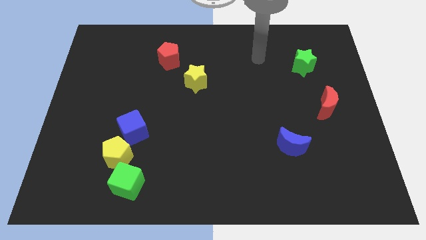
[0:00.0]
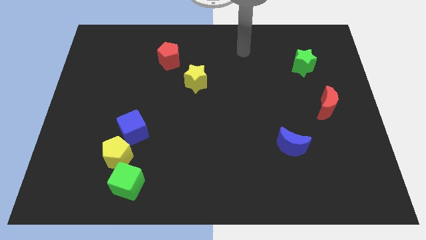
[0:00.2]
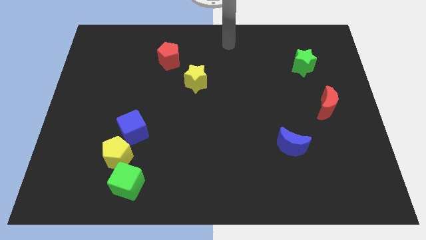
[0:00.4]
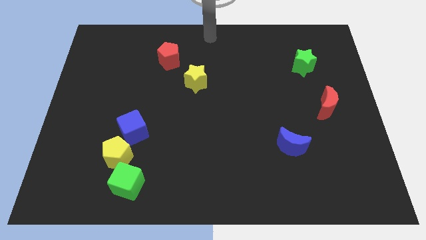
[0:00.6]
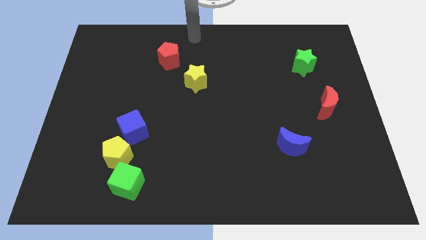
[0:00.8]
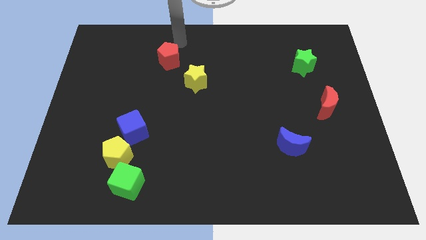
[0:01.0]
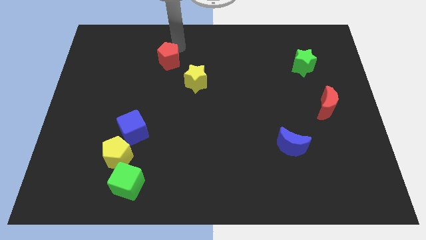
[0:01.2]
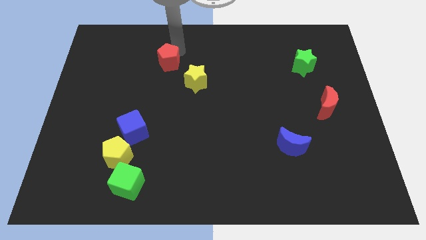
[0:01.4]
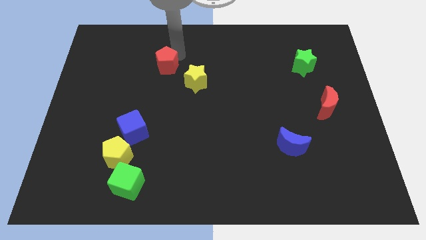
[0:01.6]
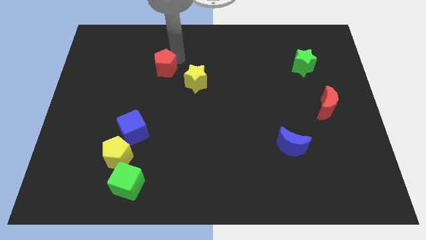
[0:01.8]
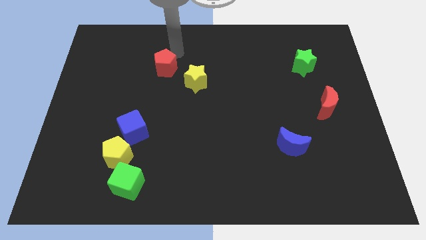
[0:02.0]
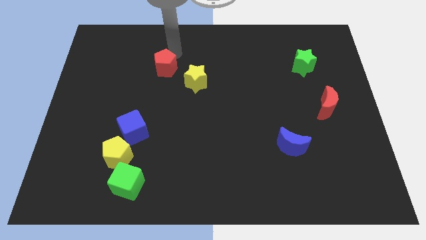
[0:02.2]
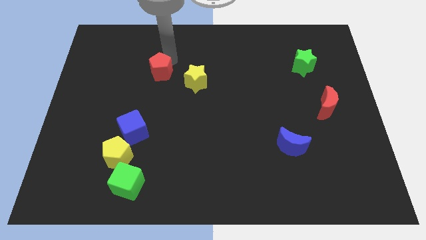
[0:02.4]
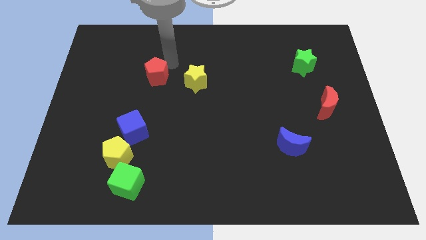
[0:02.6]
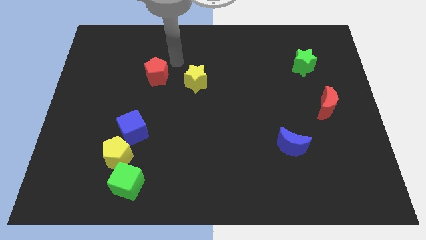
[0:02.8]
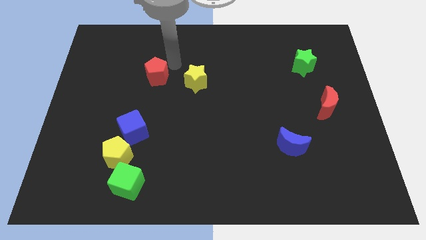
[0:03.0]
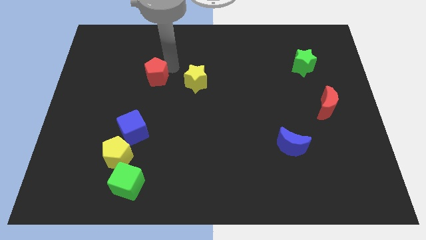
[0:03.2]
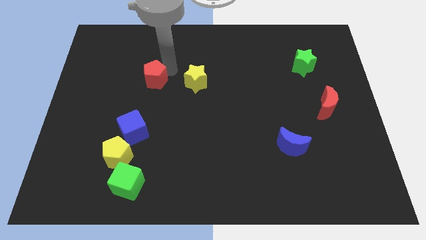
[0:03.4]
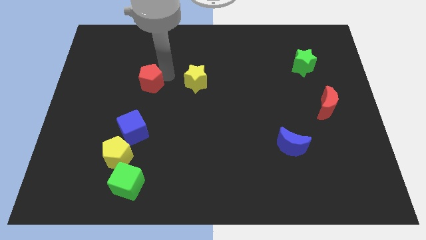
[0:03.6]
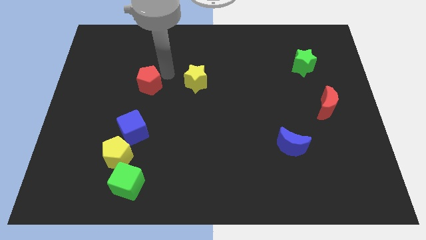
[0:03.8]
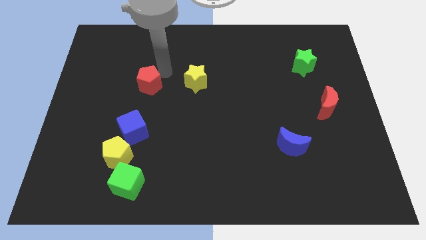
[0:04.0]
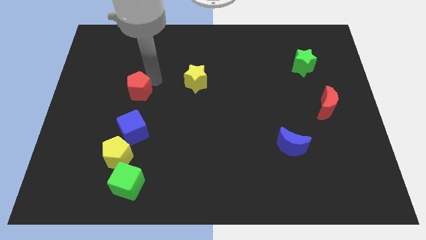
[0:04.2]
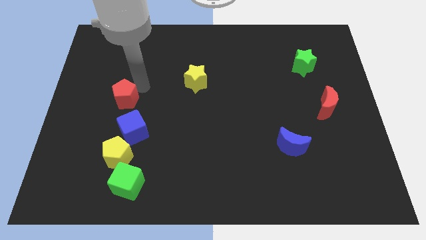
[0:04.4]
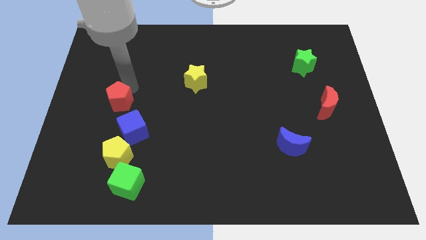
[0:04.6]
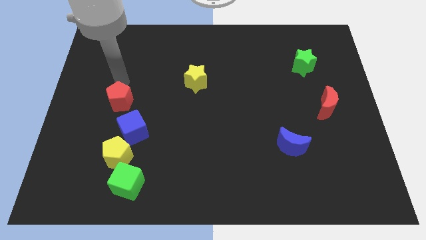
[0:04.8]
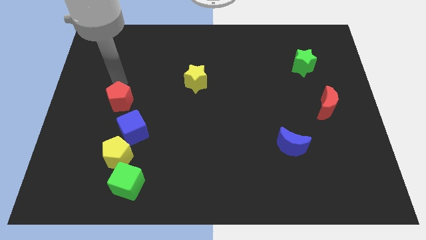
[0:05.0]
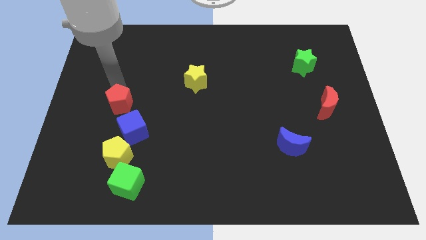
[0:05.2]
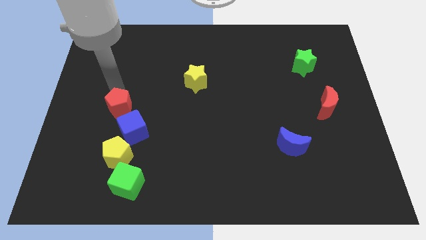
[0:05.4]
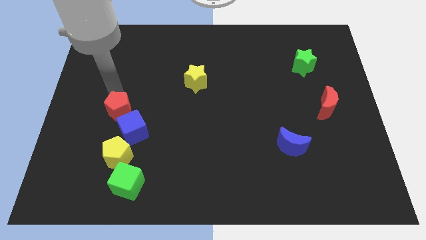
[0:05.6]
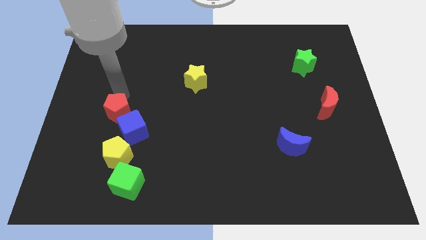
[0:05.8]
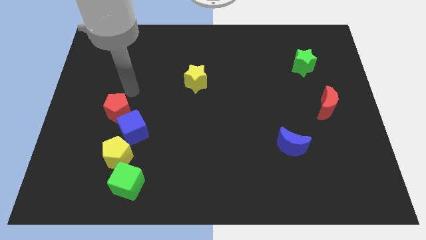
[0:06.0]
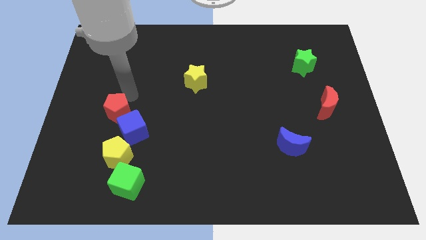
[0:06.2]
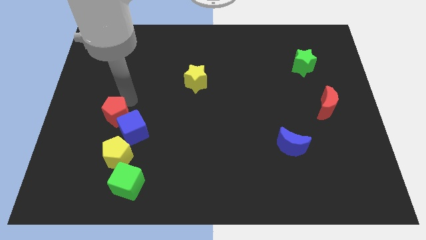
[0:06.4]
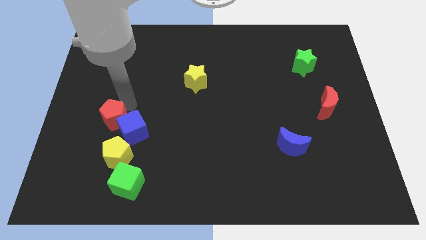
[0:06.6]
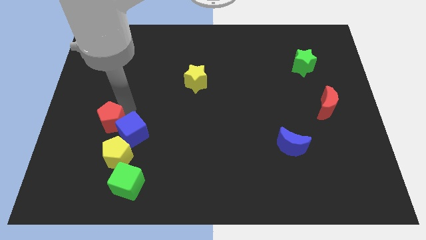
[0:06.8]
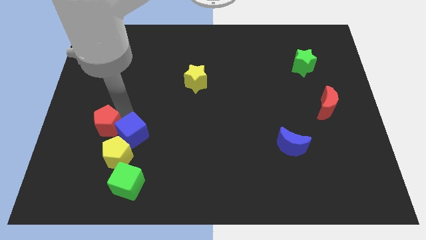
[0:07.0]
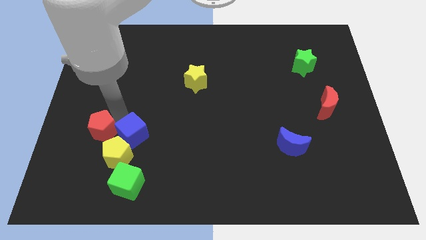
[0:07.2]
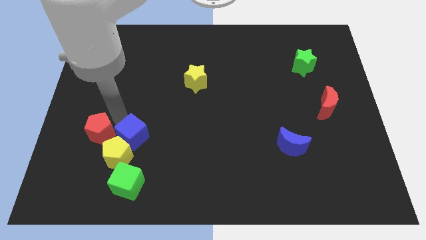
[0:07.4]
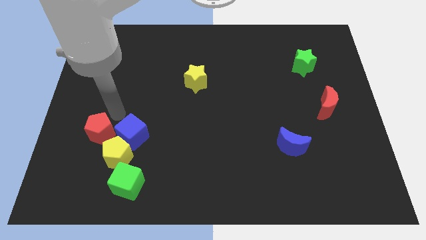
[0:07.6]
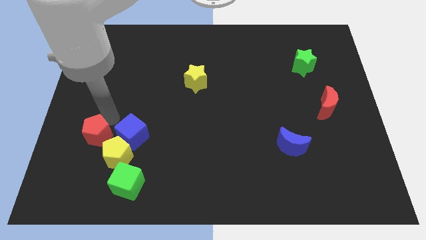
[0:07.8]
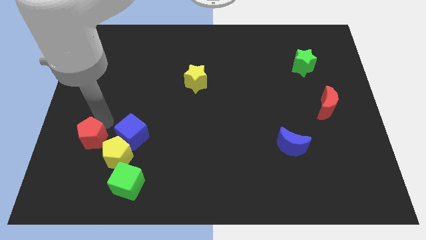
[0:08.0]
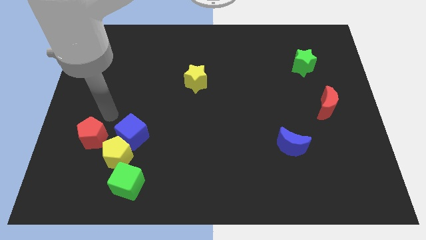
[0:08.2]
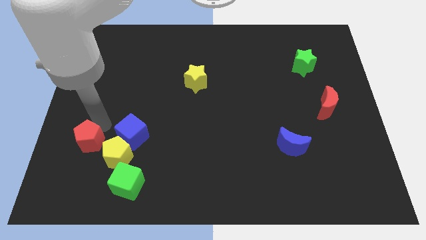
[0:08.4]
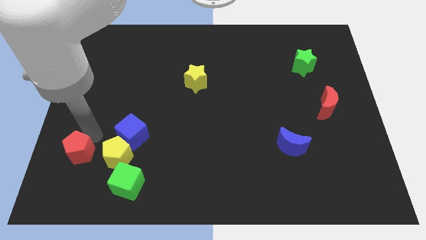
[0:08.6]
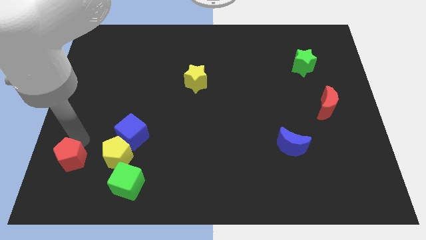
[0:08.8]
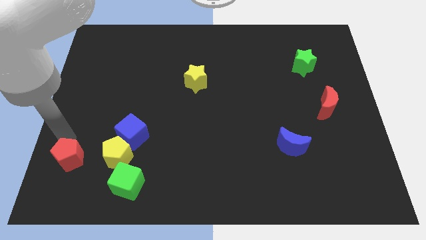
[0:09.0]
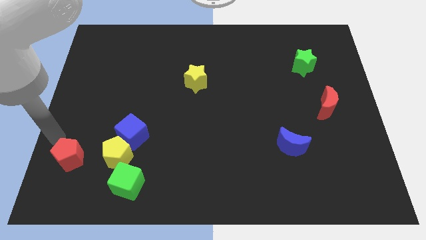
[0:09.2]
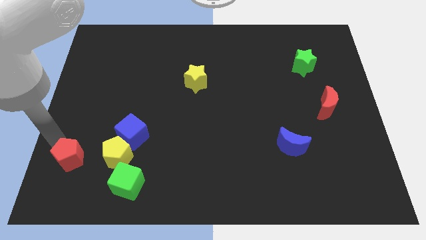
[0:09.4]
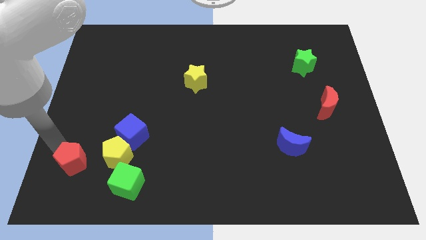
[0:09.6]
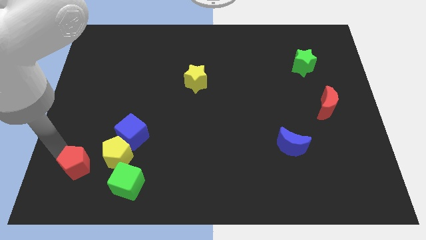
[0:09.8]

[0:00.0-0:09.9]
slide the red pentagon diagonally down and to the left of the yellow pentagon

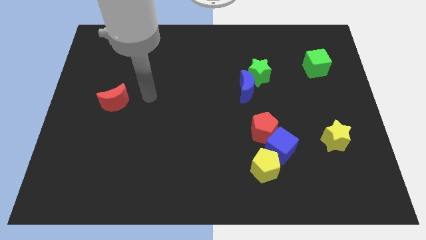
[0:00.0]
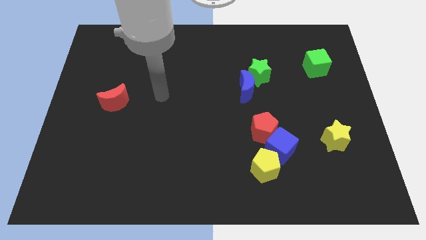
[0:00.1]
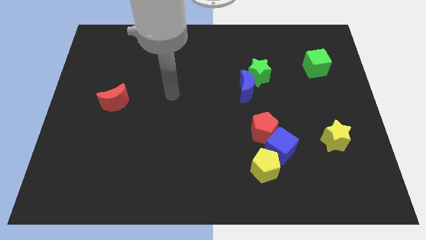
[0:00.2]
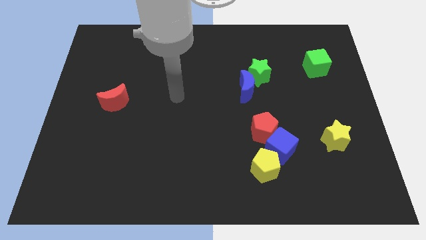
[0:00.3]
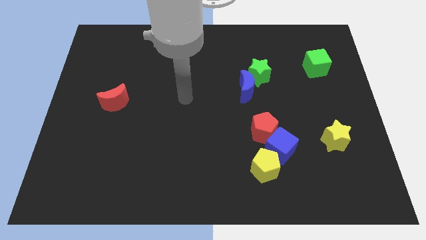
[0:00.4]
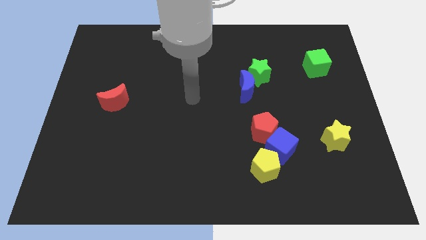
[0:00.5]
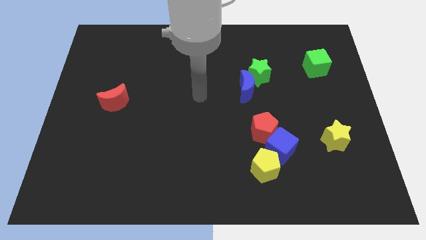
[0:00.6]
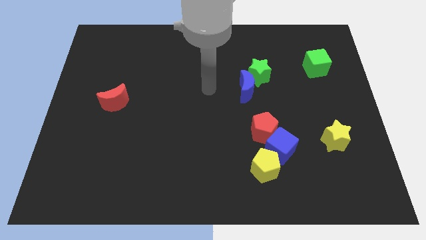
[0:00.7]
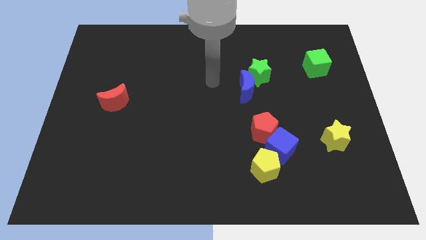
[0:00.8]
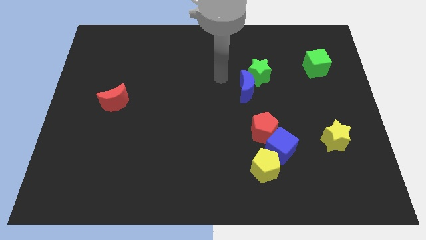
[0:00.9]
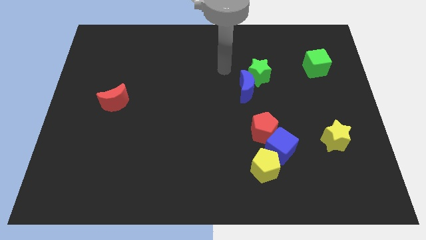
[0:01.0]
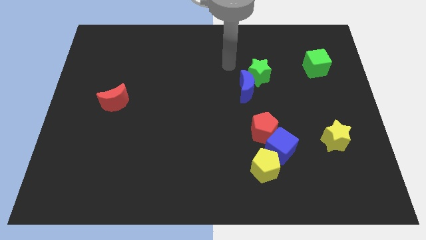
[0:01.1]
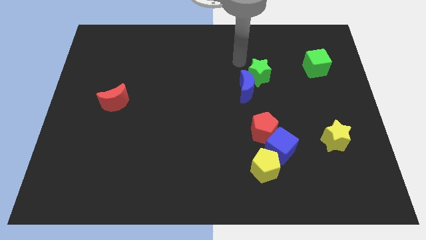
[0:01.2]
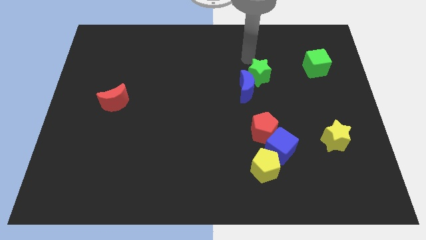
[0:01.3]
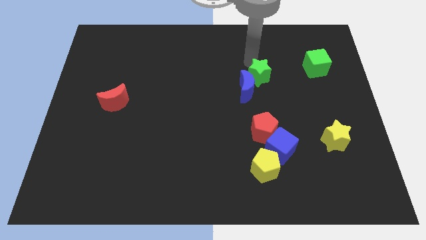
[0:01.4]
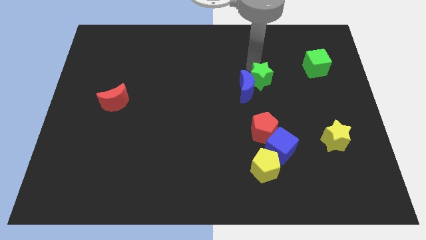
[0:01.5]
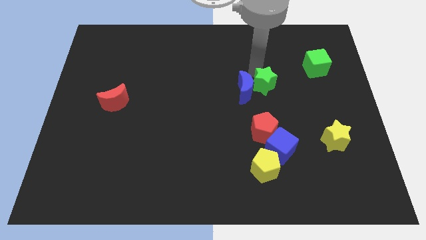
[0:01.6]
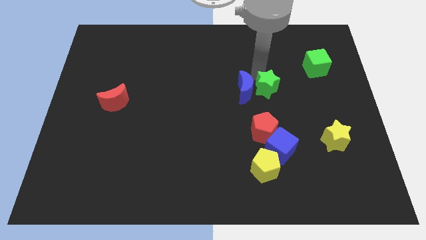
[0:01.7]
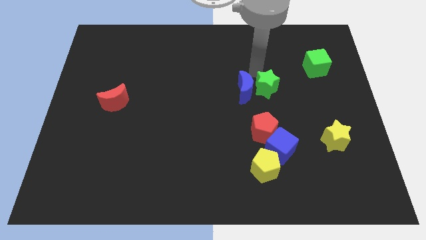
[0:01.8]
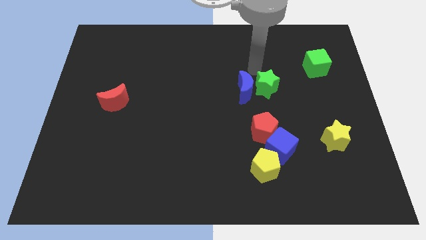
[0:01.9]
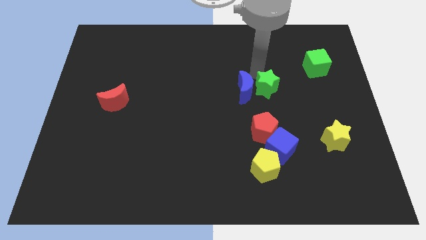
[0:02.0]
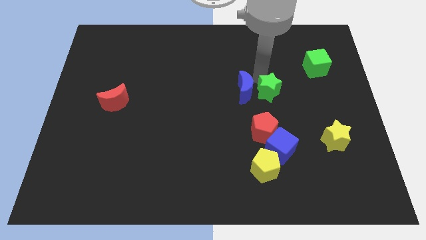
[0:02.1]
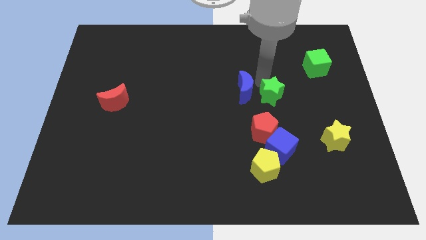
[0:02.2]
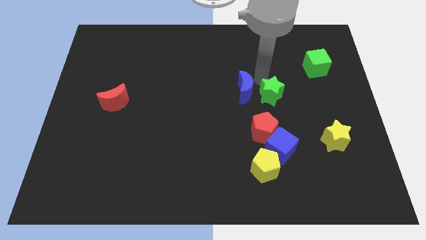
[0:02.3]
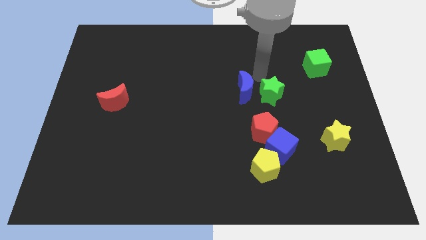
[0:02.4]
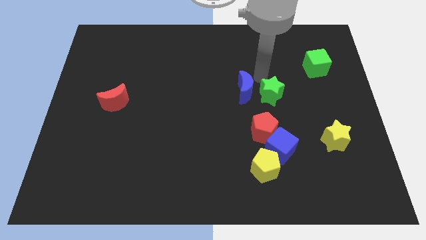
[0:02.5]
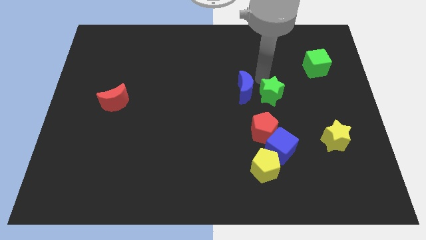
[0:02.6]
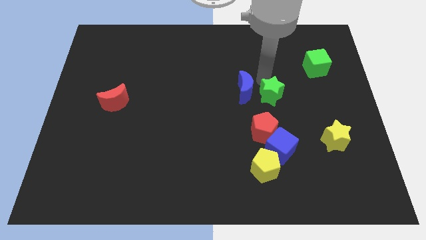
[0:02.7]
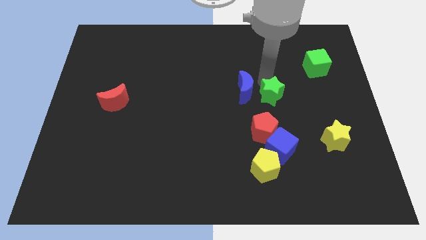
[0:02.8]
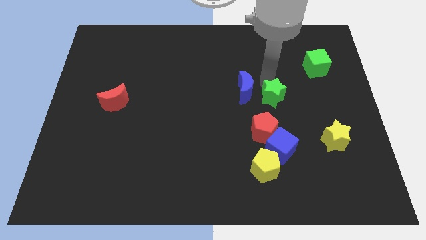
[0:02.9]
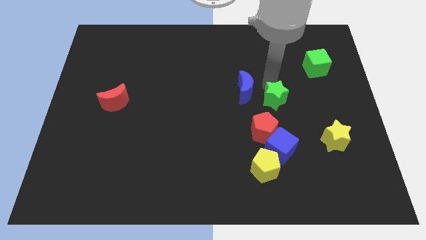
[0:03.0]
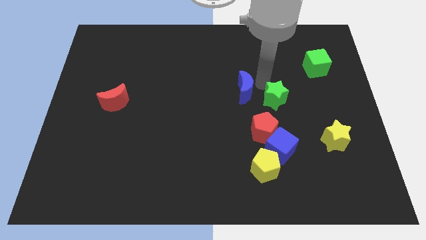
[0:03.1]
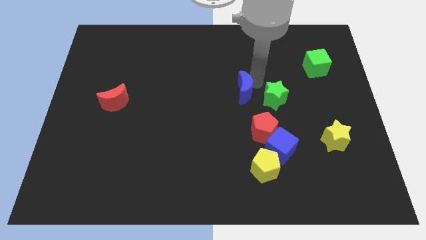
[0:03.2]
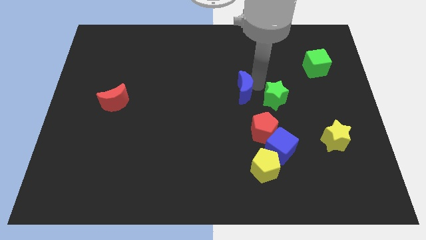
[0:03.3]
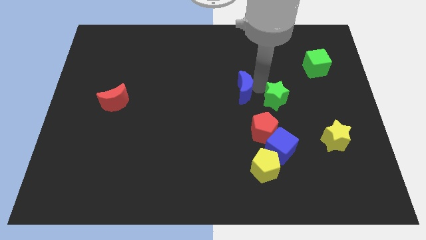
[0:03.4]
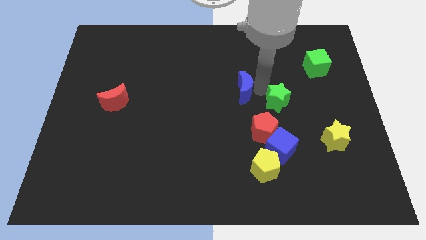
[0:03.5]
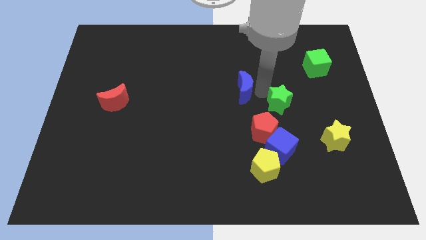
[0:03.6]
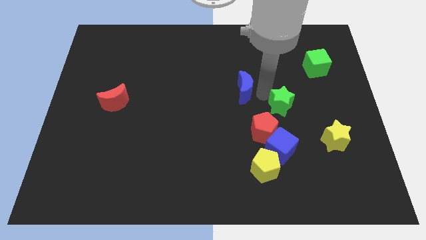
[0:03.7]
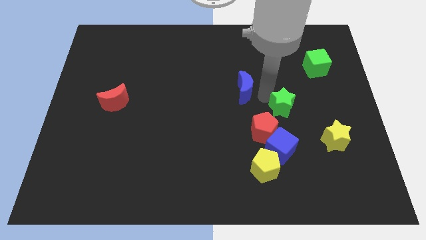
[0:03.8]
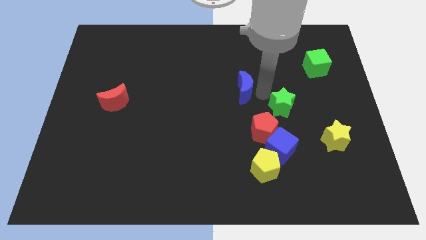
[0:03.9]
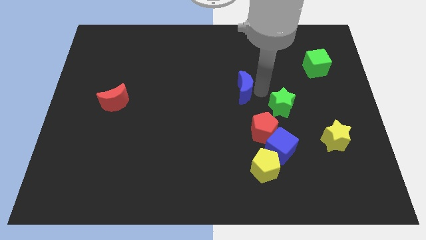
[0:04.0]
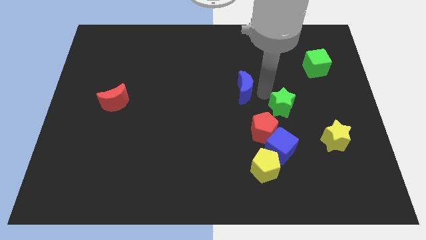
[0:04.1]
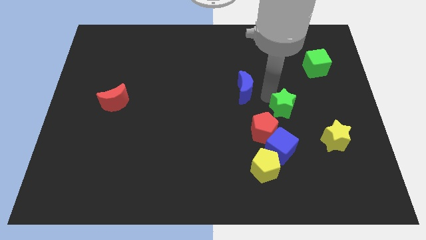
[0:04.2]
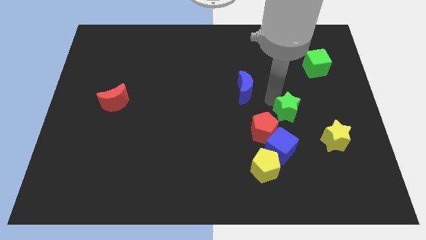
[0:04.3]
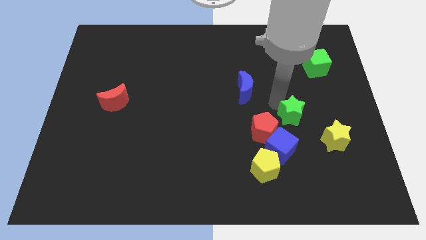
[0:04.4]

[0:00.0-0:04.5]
slide the green star to the right side of the red pentagon
